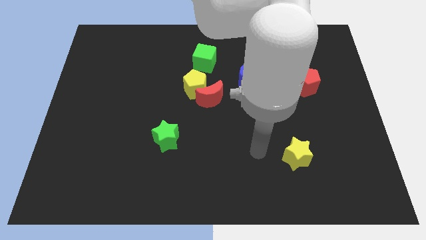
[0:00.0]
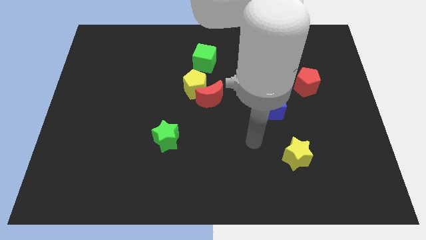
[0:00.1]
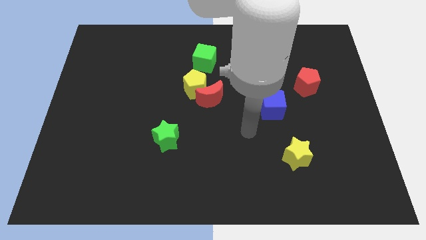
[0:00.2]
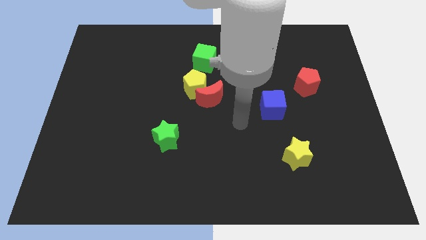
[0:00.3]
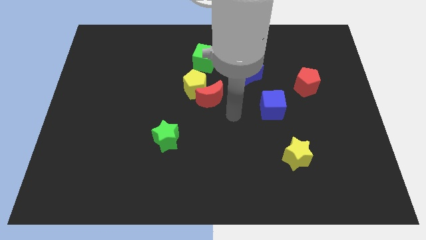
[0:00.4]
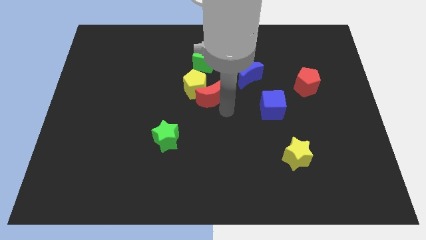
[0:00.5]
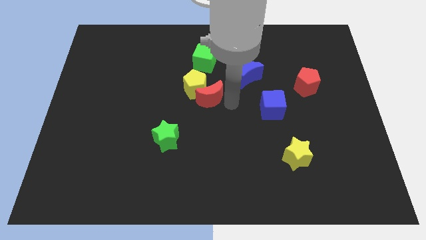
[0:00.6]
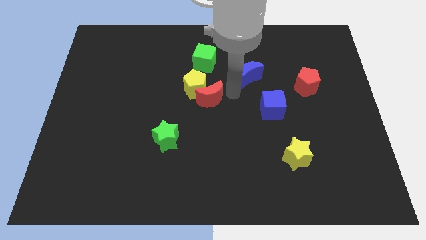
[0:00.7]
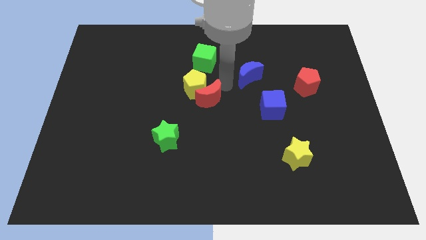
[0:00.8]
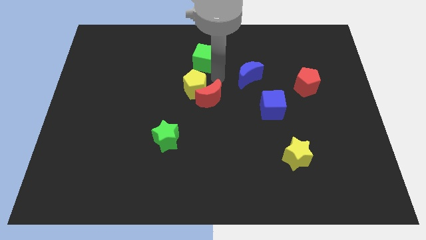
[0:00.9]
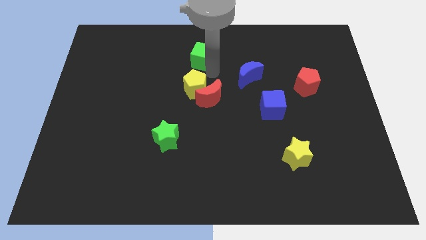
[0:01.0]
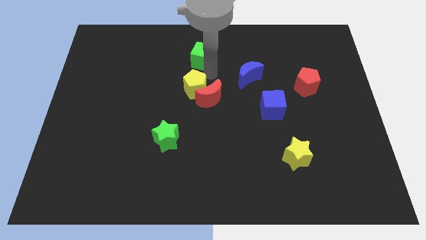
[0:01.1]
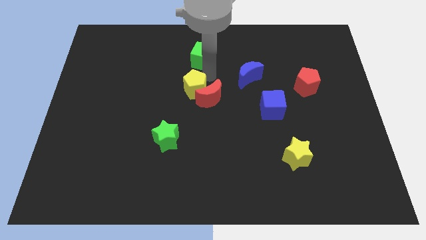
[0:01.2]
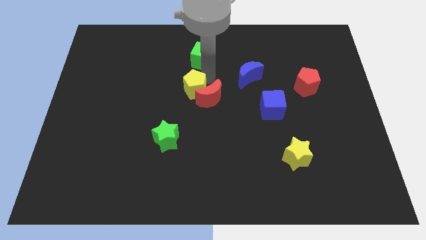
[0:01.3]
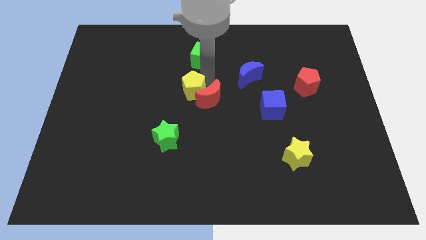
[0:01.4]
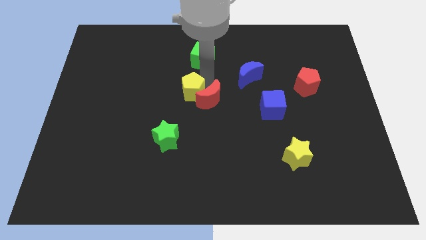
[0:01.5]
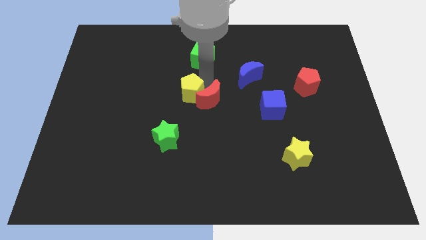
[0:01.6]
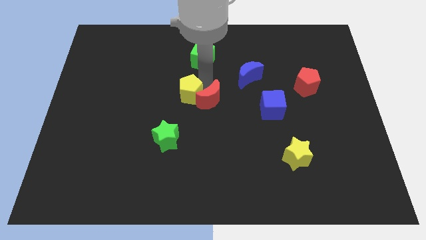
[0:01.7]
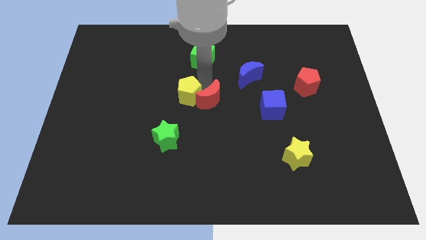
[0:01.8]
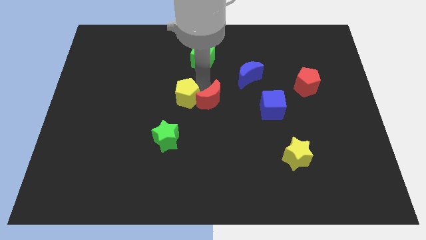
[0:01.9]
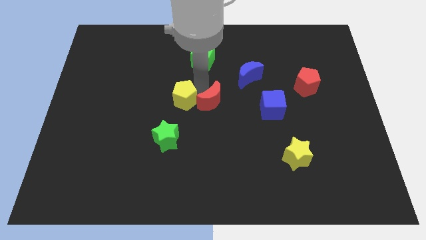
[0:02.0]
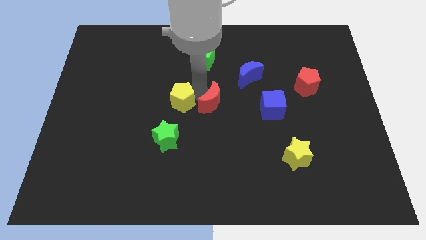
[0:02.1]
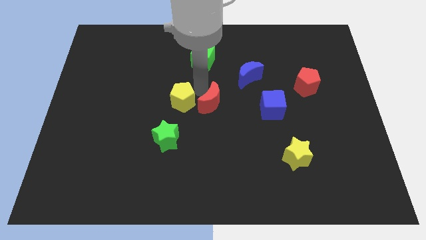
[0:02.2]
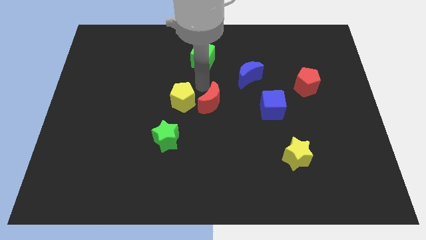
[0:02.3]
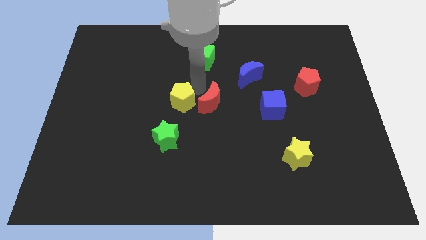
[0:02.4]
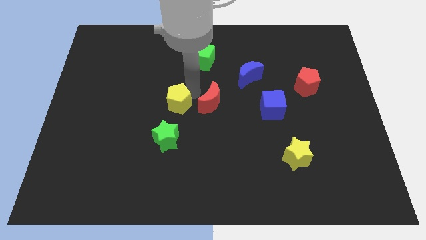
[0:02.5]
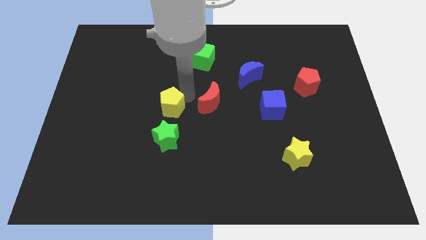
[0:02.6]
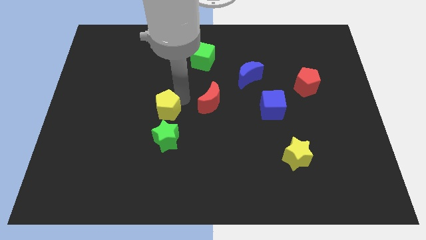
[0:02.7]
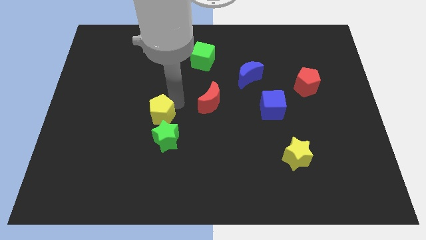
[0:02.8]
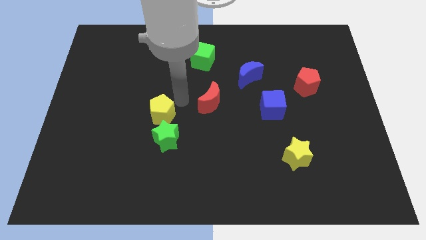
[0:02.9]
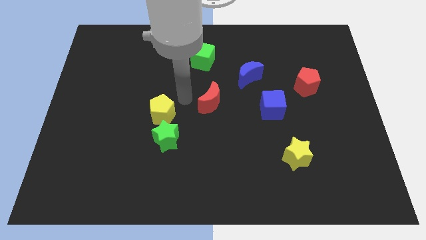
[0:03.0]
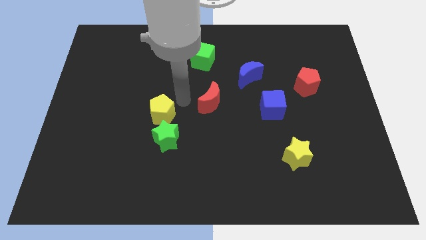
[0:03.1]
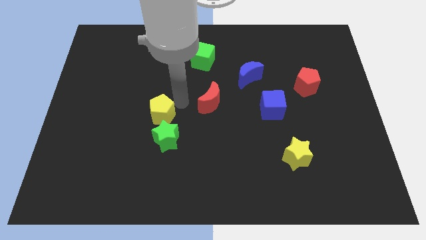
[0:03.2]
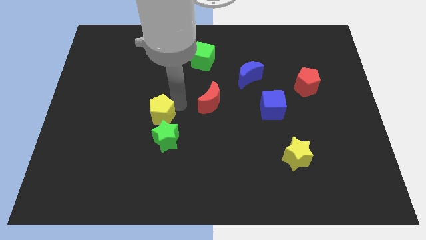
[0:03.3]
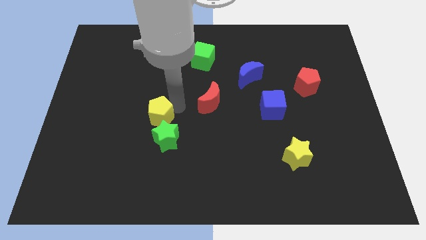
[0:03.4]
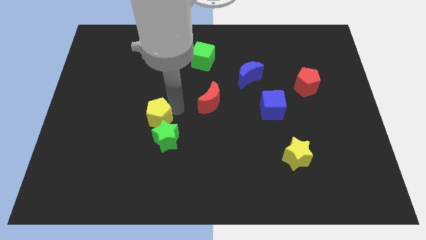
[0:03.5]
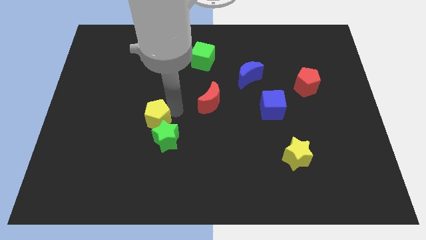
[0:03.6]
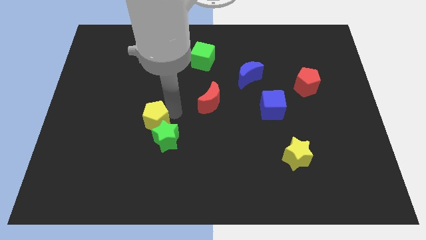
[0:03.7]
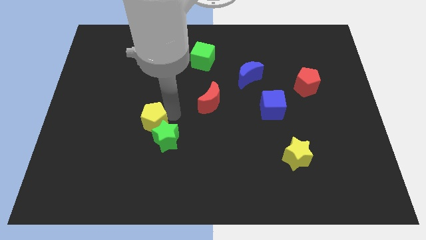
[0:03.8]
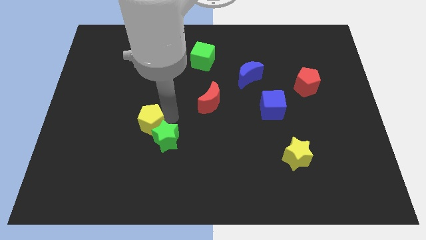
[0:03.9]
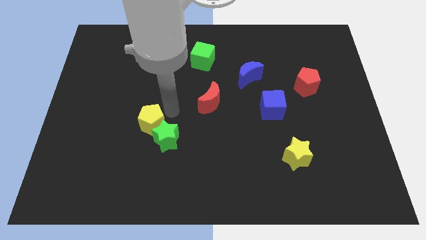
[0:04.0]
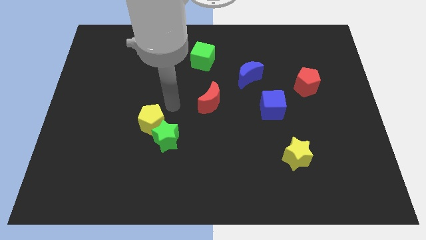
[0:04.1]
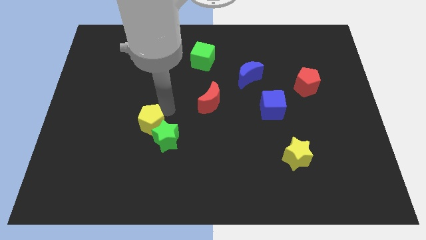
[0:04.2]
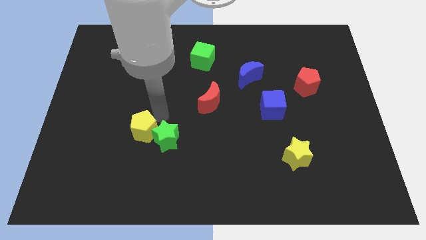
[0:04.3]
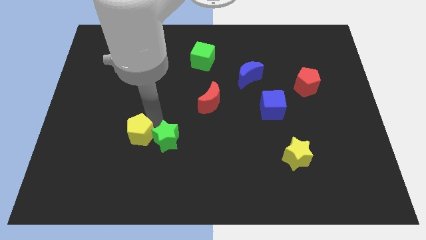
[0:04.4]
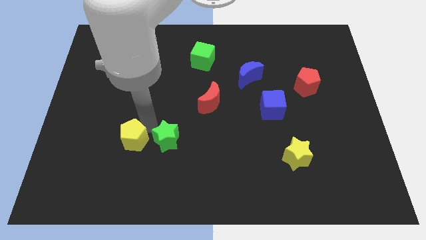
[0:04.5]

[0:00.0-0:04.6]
push the yellow pentagon downwards and left diagonally

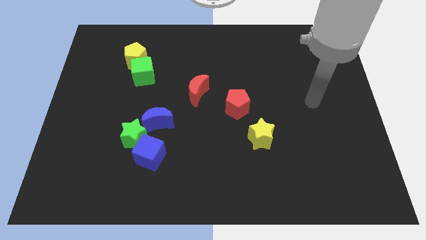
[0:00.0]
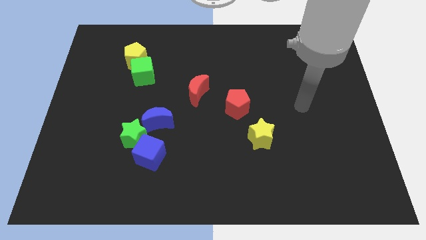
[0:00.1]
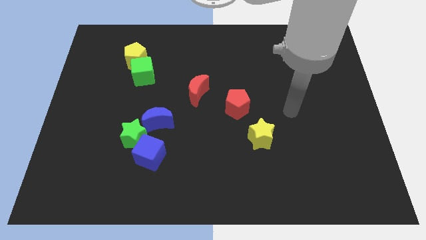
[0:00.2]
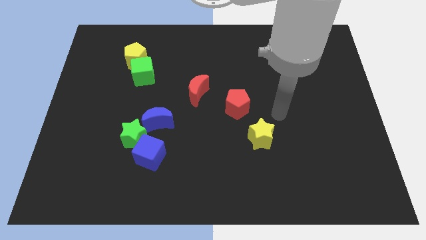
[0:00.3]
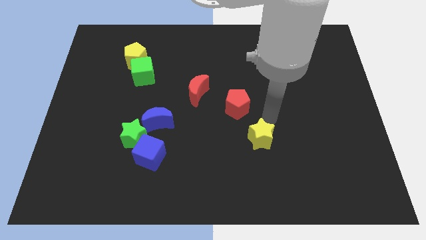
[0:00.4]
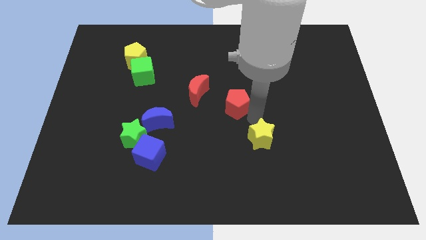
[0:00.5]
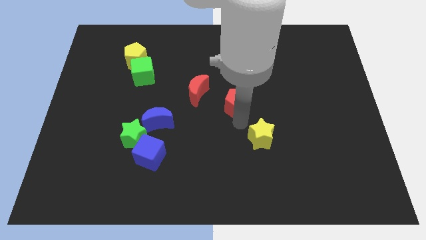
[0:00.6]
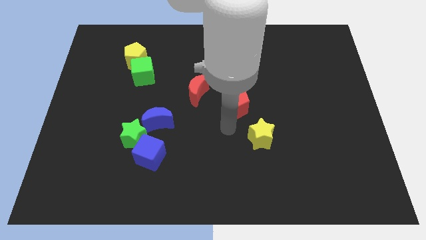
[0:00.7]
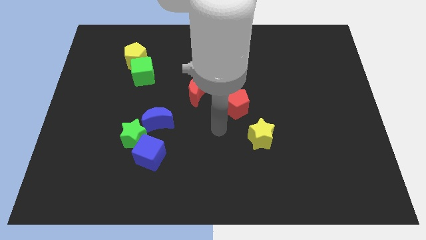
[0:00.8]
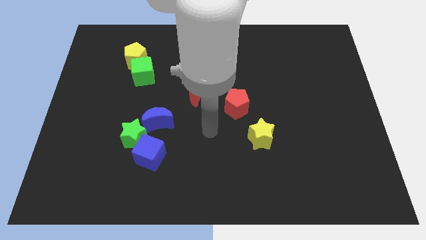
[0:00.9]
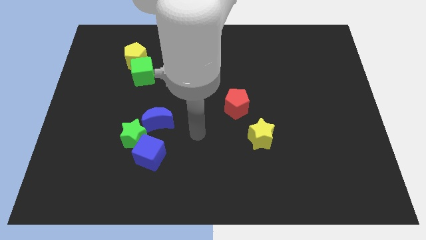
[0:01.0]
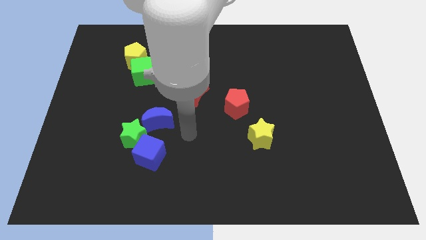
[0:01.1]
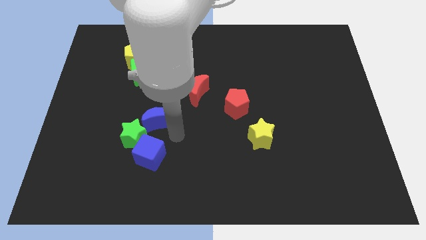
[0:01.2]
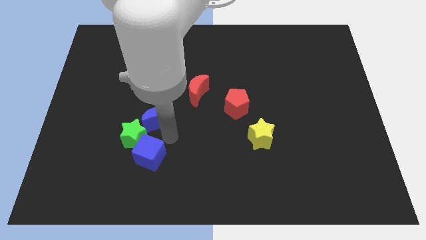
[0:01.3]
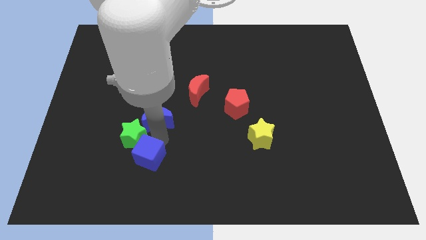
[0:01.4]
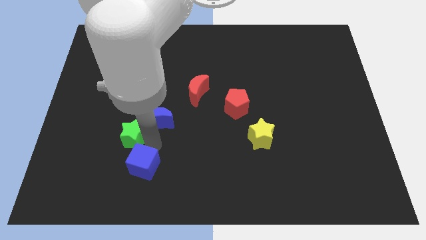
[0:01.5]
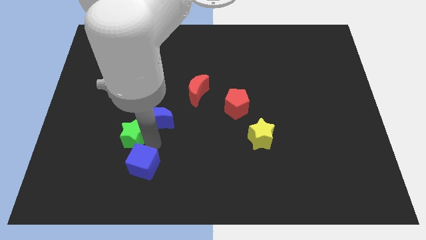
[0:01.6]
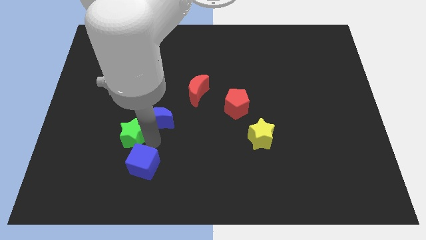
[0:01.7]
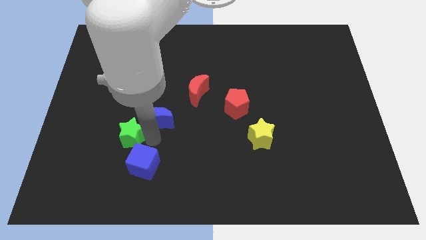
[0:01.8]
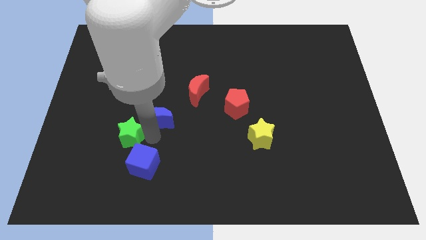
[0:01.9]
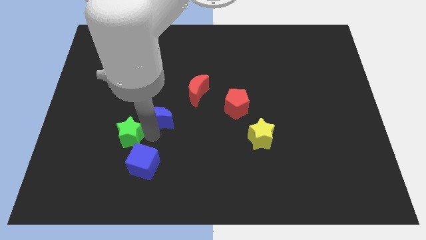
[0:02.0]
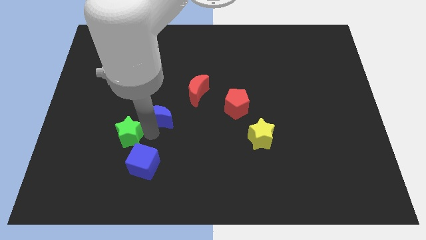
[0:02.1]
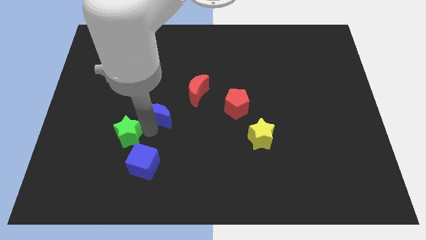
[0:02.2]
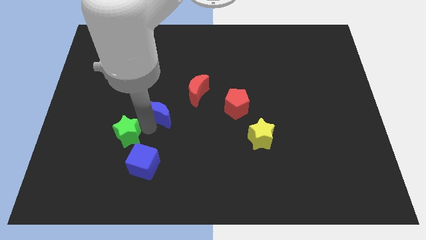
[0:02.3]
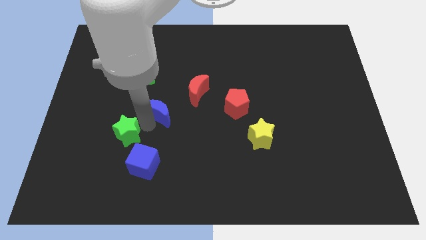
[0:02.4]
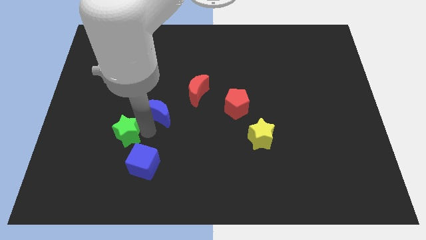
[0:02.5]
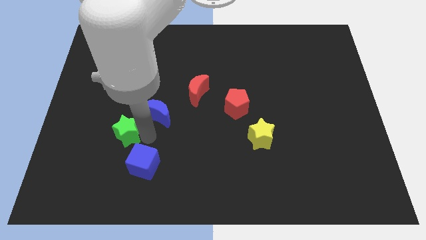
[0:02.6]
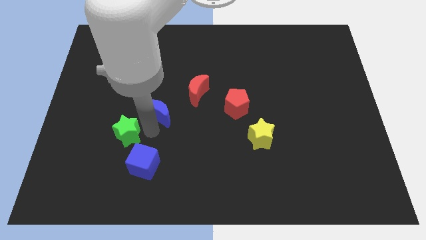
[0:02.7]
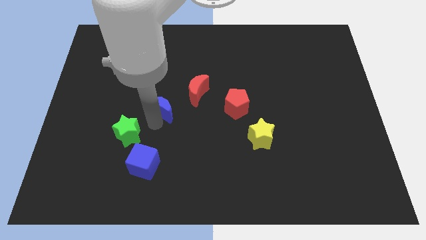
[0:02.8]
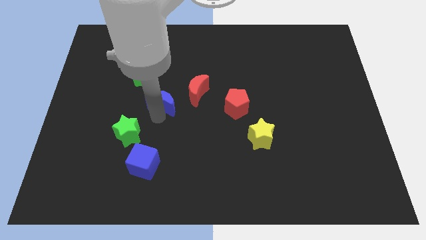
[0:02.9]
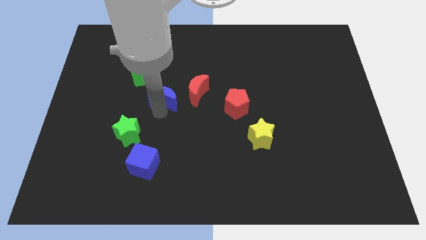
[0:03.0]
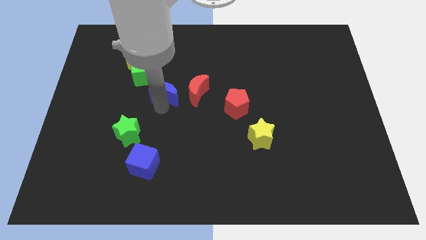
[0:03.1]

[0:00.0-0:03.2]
slide the blue moon up slightly

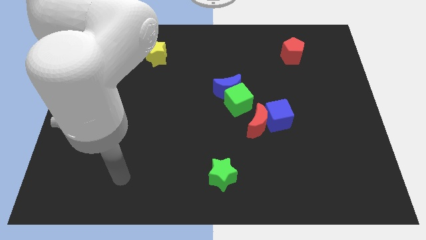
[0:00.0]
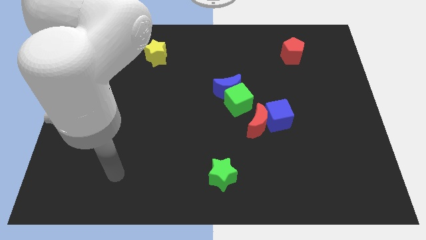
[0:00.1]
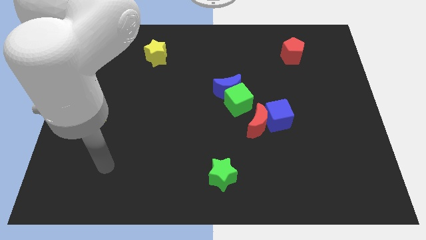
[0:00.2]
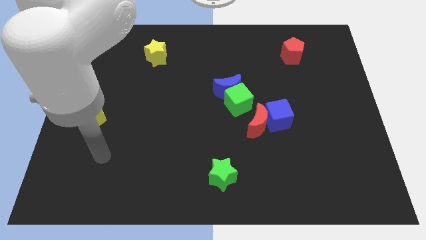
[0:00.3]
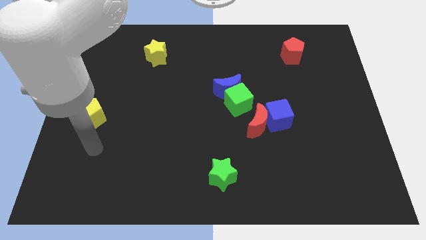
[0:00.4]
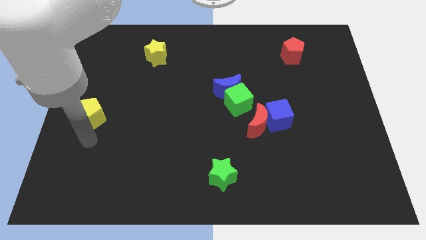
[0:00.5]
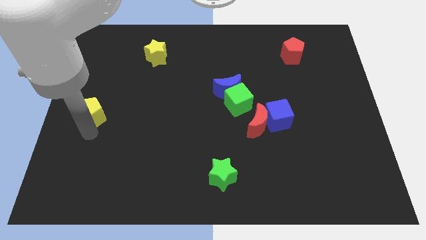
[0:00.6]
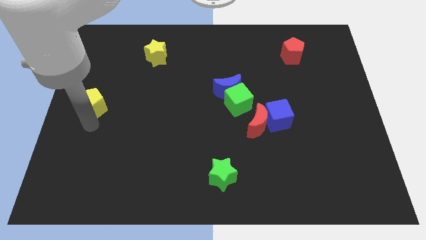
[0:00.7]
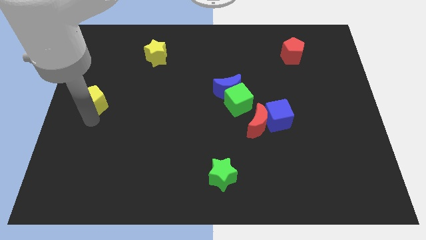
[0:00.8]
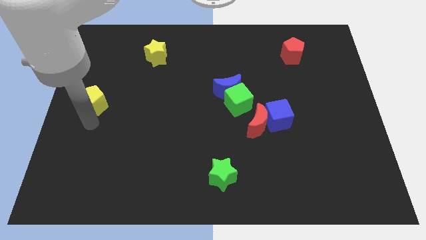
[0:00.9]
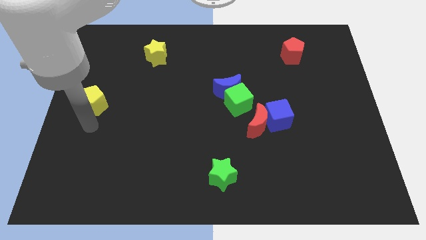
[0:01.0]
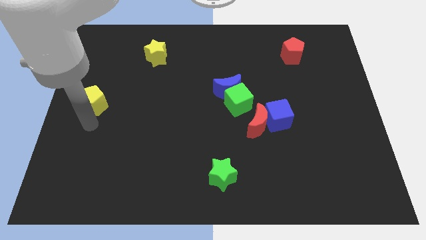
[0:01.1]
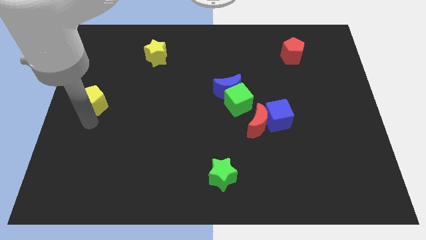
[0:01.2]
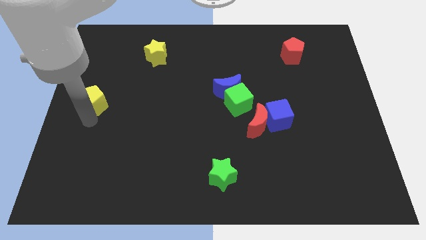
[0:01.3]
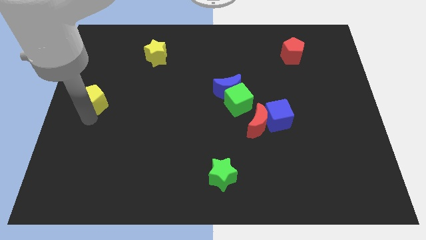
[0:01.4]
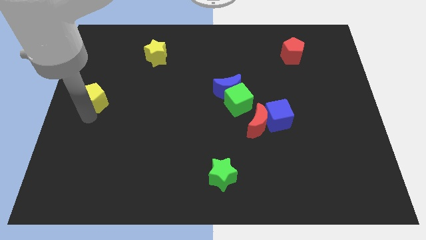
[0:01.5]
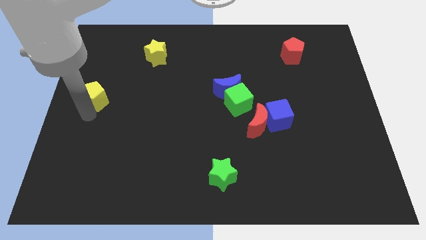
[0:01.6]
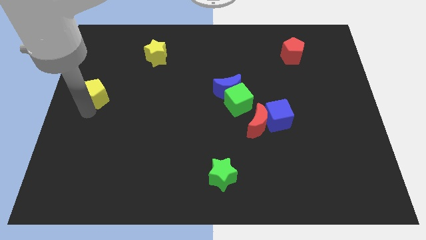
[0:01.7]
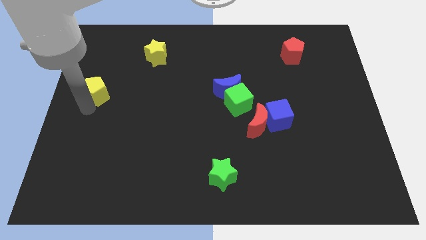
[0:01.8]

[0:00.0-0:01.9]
slide the yellow pentagon a little bit upwards
